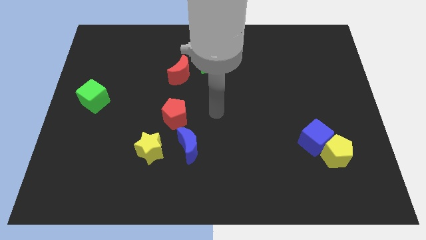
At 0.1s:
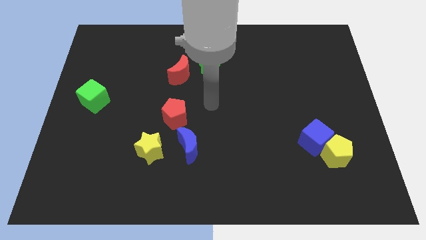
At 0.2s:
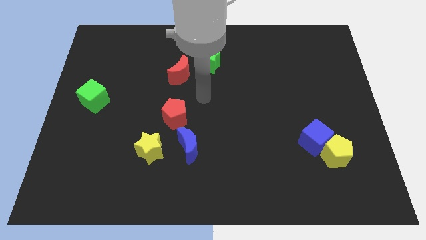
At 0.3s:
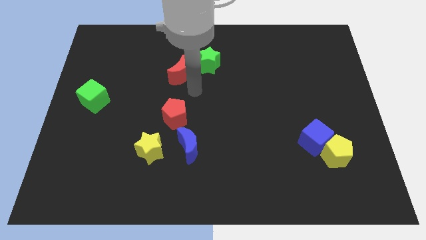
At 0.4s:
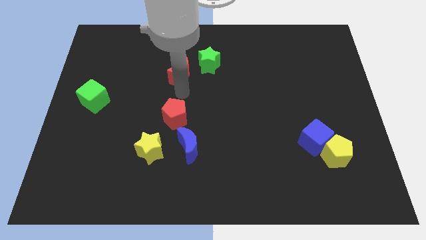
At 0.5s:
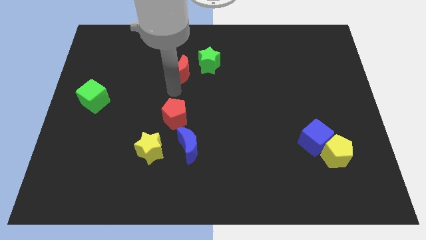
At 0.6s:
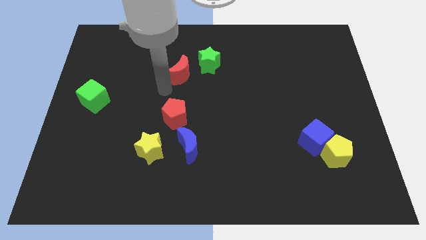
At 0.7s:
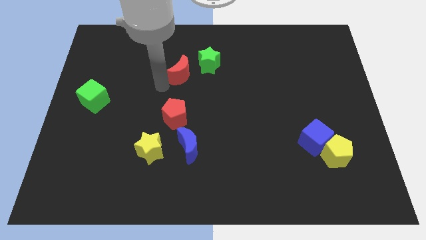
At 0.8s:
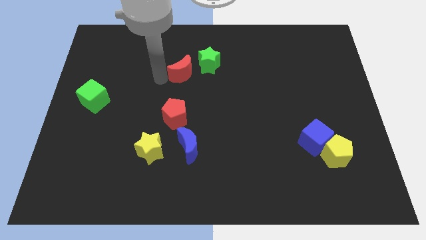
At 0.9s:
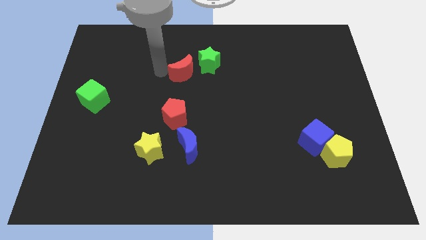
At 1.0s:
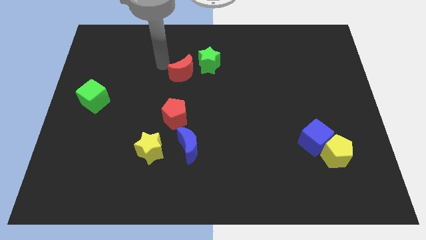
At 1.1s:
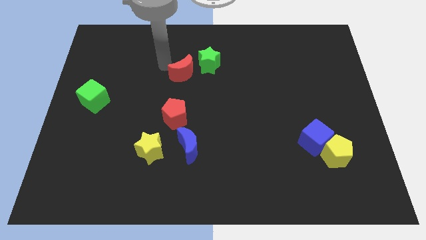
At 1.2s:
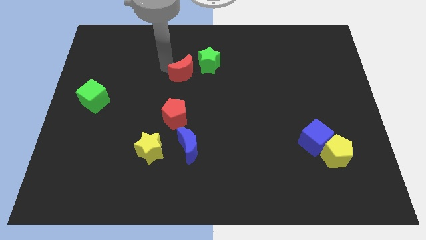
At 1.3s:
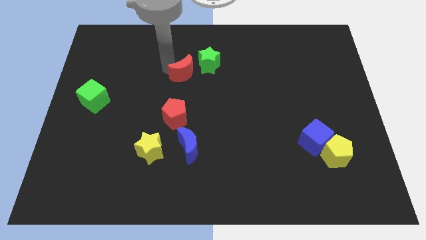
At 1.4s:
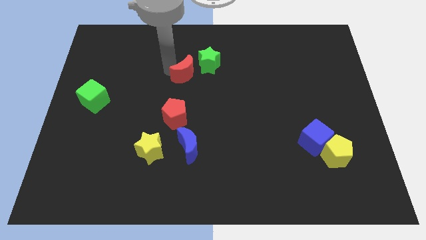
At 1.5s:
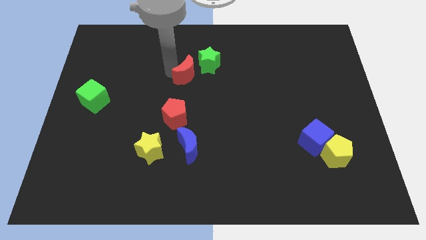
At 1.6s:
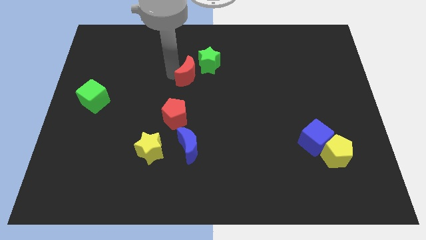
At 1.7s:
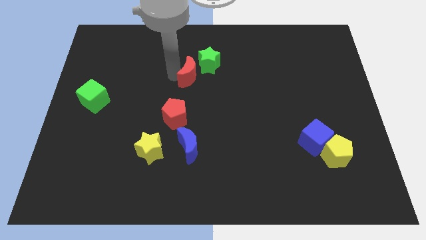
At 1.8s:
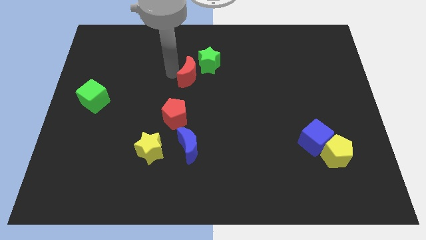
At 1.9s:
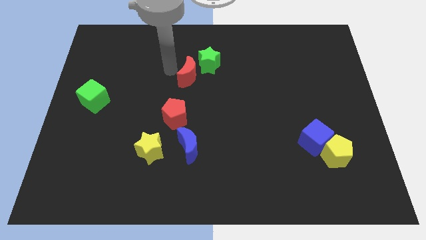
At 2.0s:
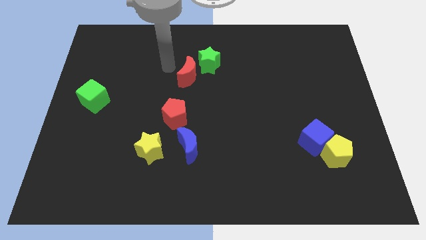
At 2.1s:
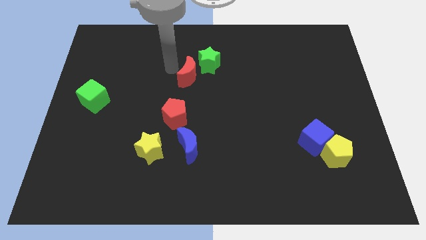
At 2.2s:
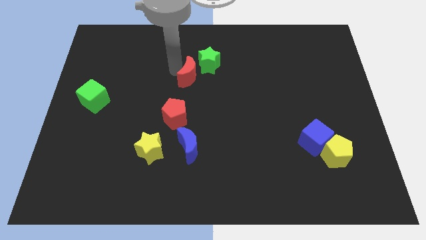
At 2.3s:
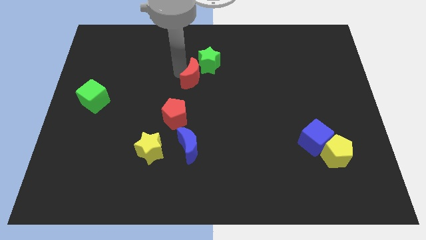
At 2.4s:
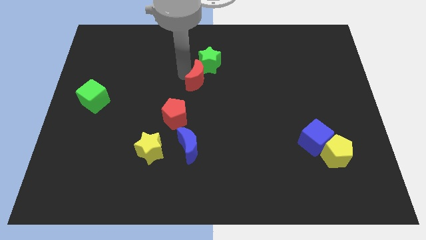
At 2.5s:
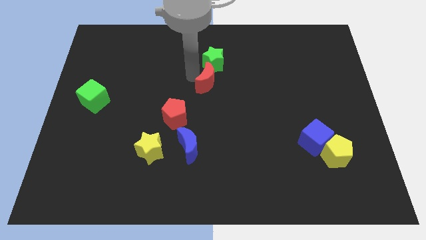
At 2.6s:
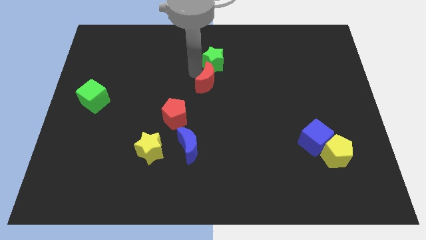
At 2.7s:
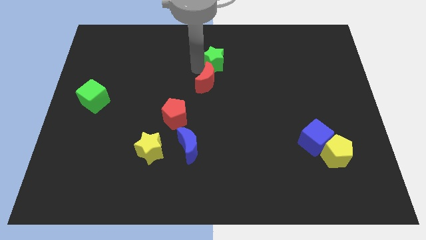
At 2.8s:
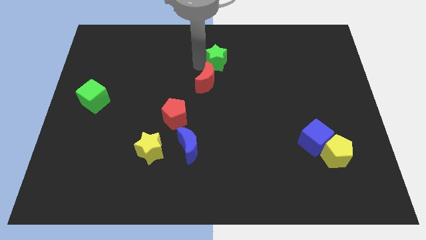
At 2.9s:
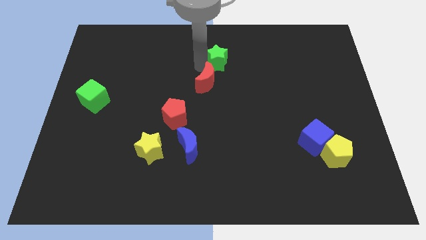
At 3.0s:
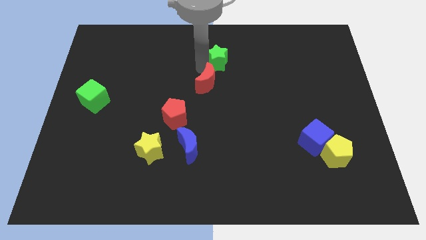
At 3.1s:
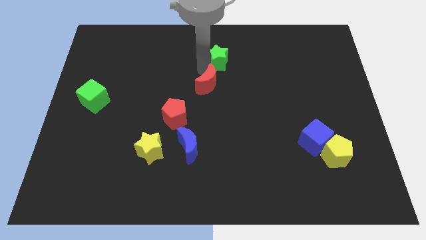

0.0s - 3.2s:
slightly push the red moon downwards and right

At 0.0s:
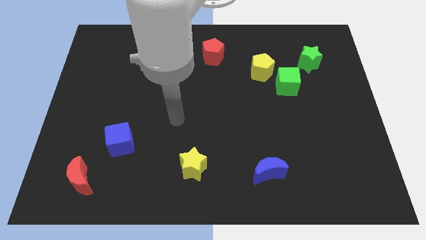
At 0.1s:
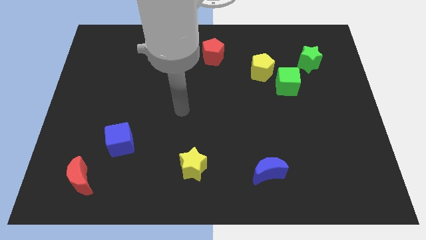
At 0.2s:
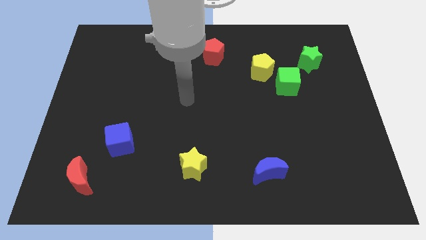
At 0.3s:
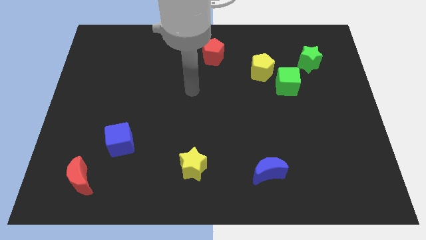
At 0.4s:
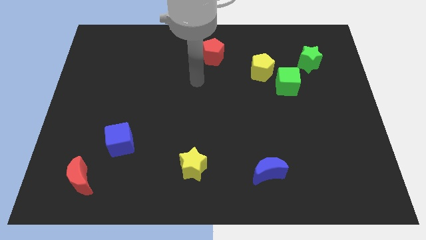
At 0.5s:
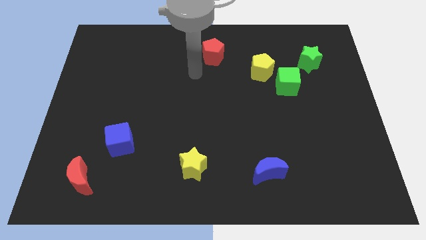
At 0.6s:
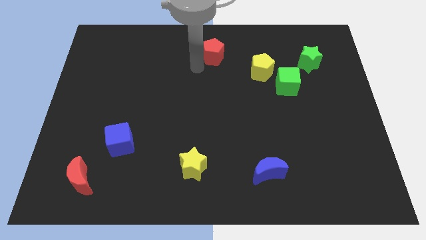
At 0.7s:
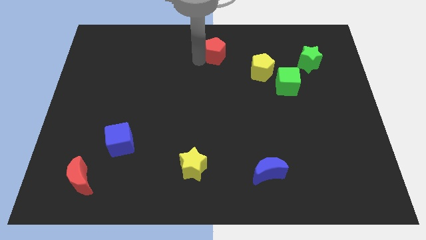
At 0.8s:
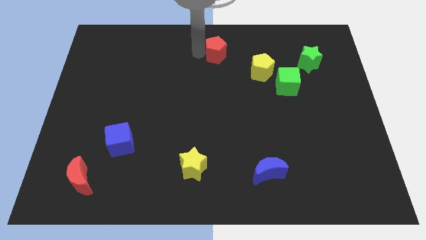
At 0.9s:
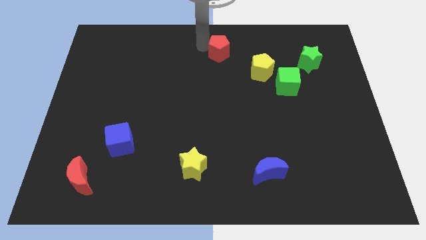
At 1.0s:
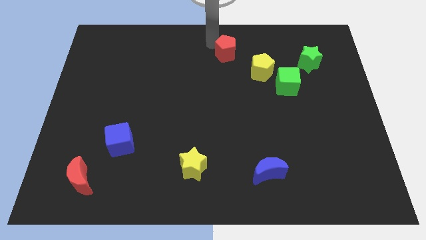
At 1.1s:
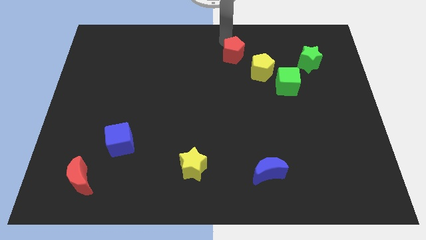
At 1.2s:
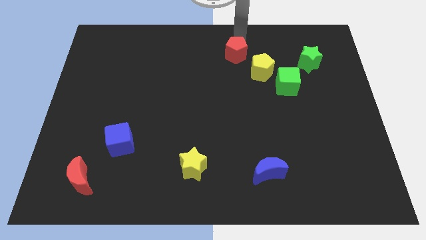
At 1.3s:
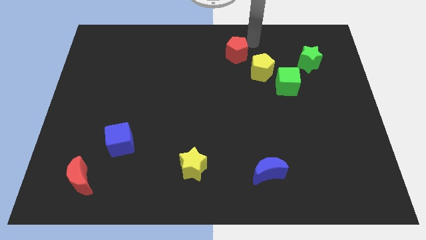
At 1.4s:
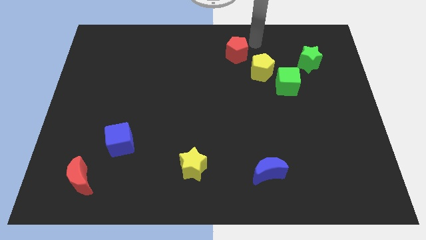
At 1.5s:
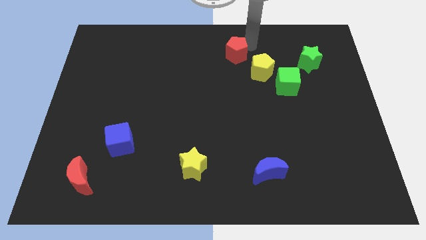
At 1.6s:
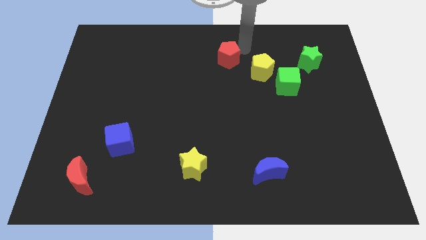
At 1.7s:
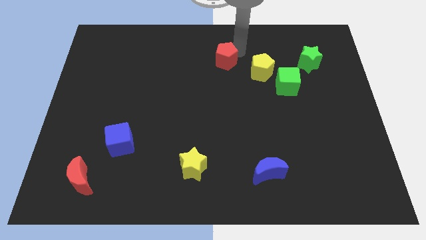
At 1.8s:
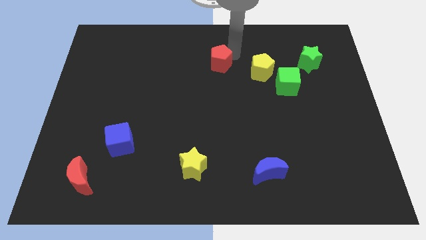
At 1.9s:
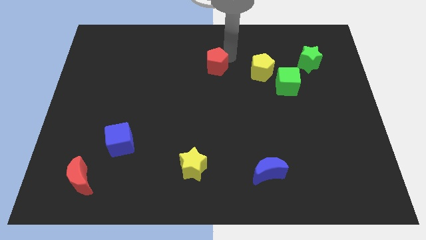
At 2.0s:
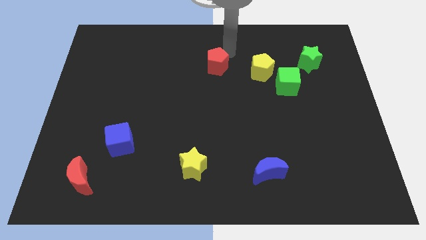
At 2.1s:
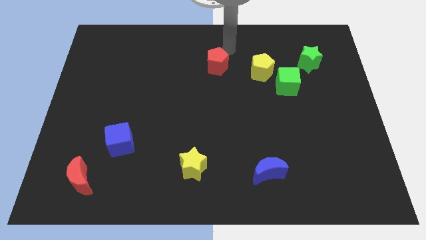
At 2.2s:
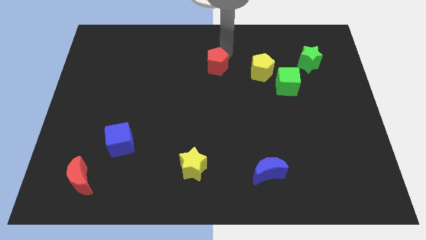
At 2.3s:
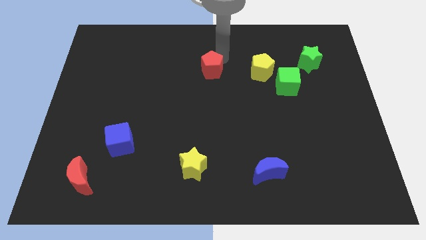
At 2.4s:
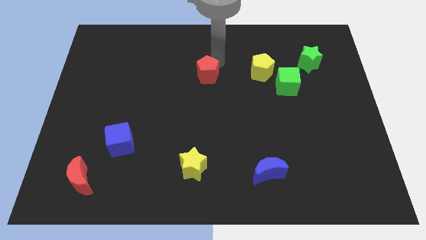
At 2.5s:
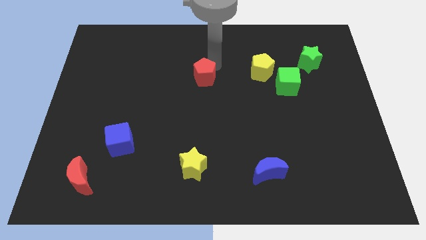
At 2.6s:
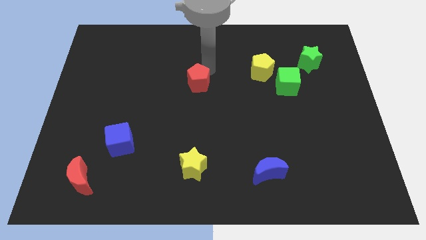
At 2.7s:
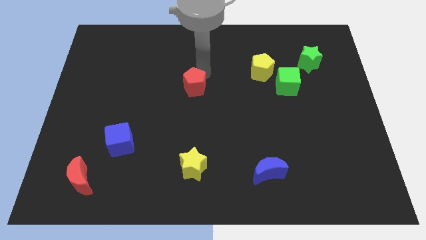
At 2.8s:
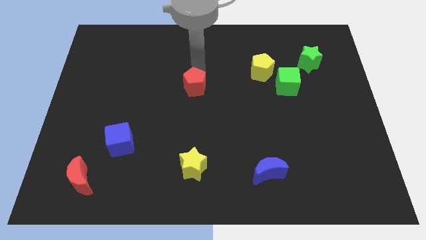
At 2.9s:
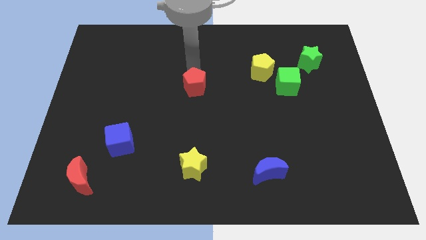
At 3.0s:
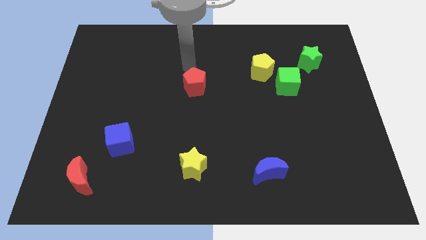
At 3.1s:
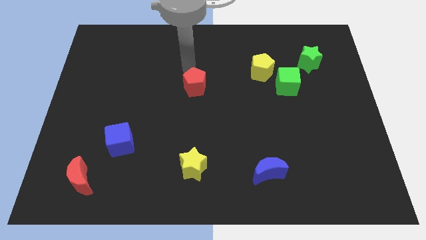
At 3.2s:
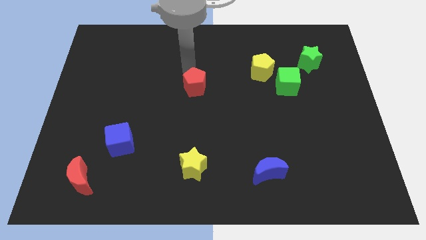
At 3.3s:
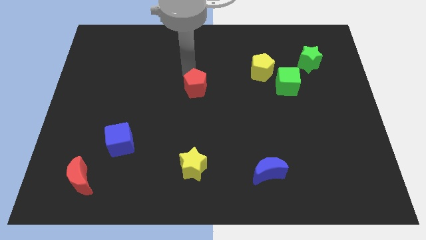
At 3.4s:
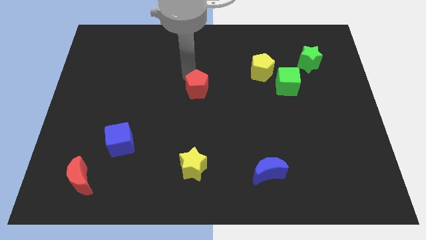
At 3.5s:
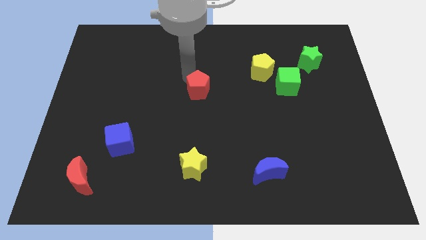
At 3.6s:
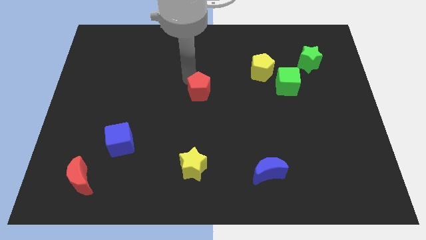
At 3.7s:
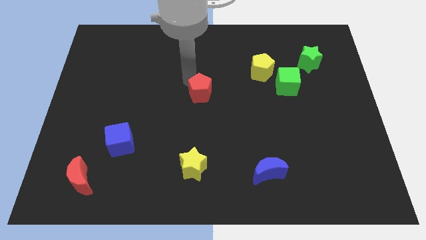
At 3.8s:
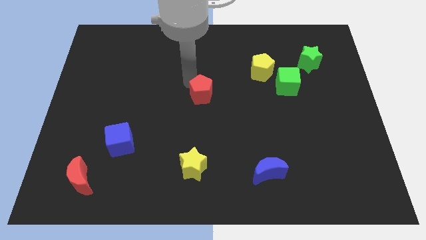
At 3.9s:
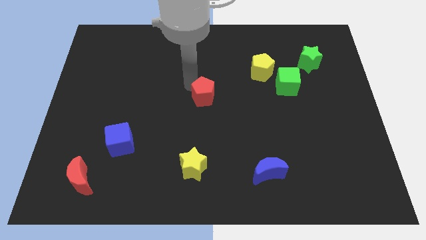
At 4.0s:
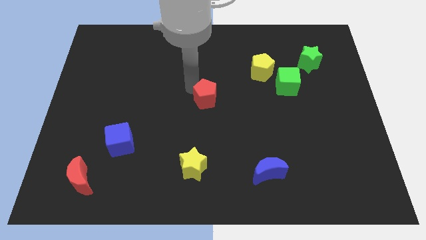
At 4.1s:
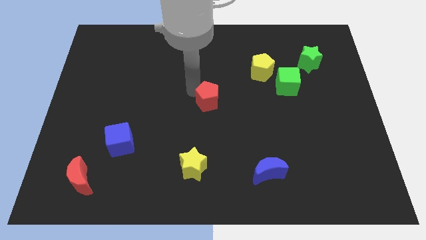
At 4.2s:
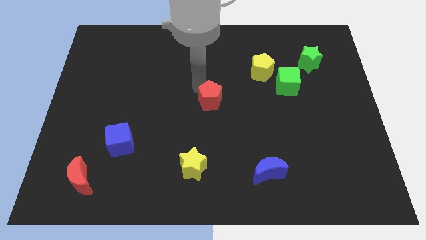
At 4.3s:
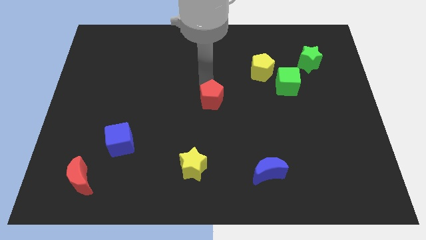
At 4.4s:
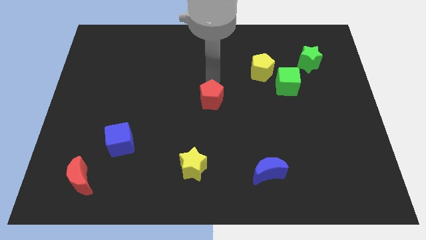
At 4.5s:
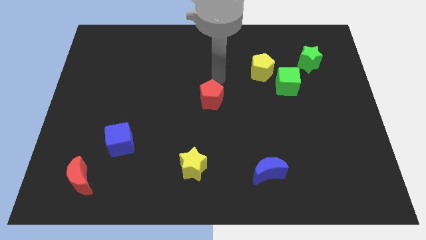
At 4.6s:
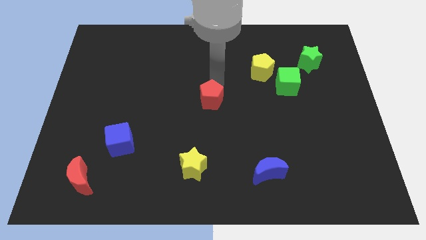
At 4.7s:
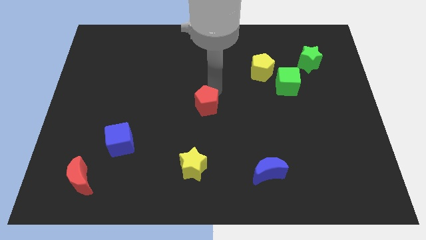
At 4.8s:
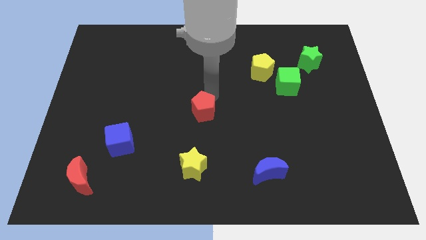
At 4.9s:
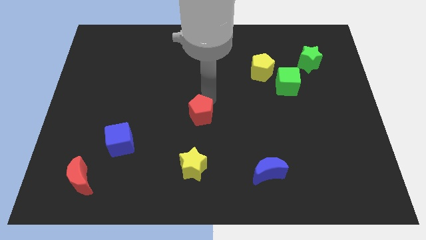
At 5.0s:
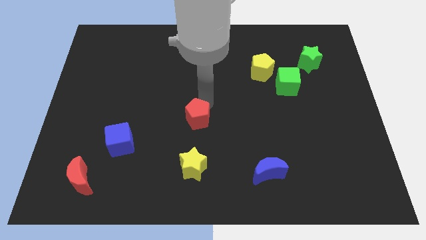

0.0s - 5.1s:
move the red pentagon down
